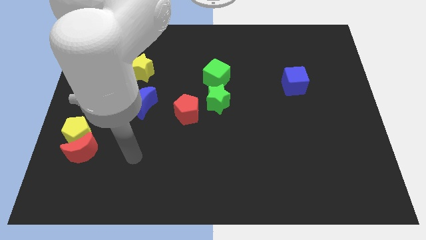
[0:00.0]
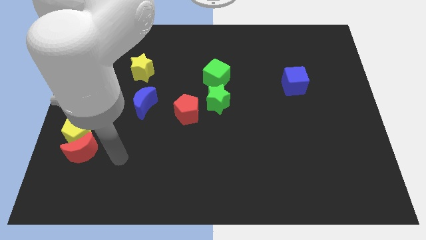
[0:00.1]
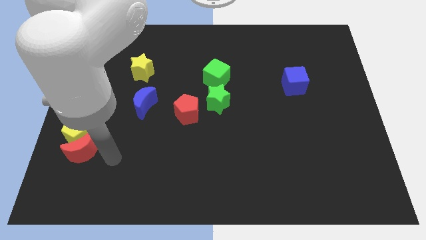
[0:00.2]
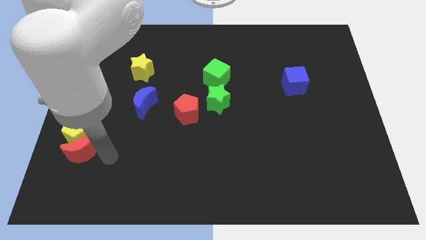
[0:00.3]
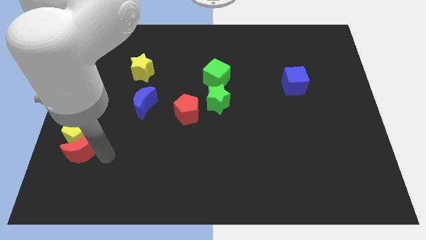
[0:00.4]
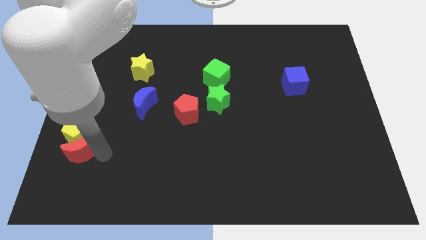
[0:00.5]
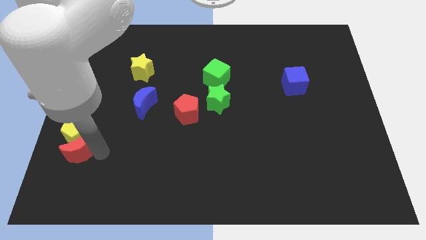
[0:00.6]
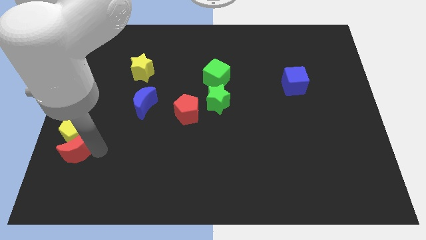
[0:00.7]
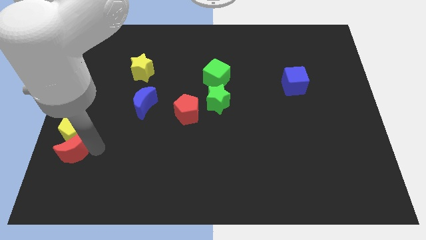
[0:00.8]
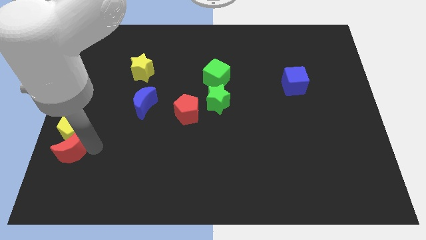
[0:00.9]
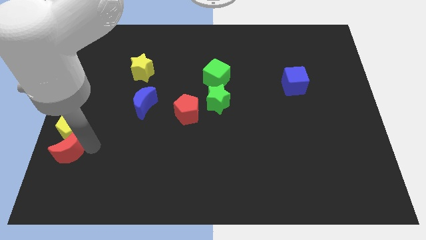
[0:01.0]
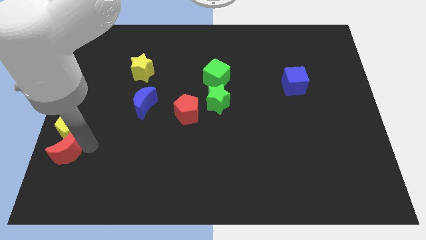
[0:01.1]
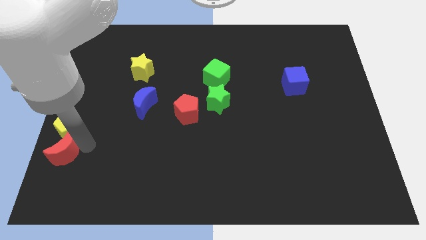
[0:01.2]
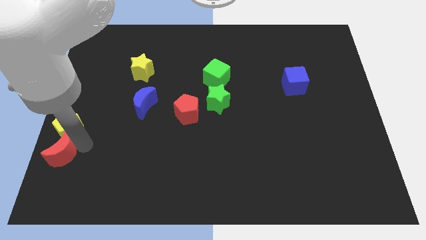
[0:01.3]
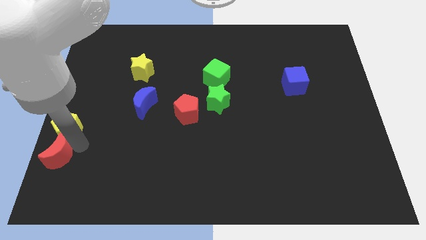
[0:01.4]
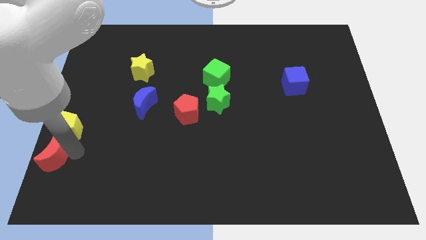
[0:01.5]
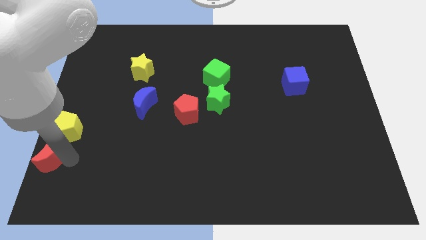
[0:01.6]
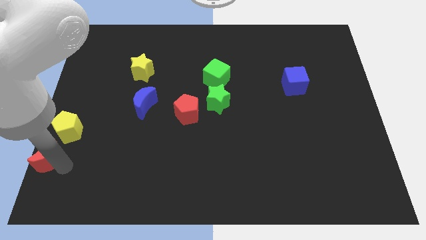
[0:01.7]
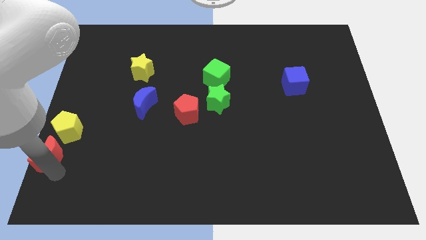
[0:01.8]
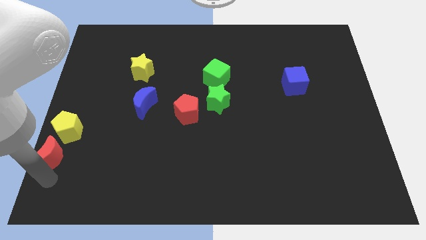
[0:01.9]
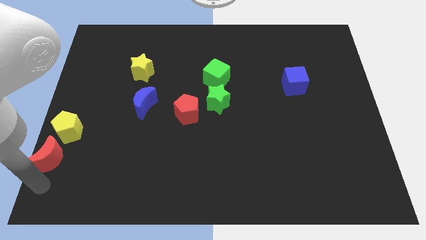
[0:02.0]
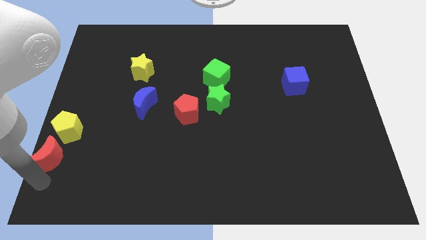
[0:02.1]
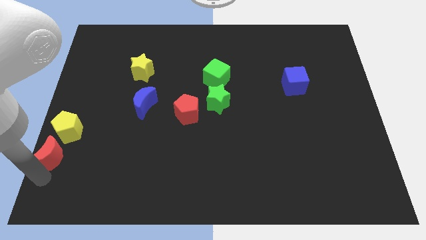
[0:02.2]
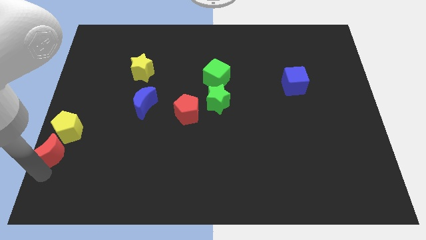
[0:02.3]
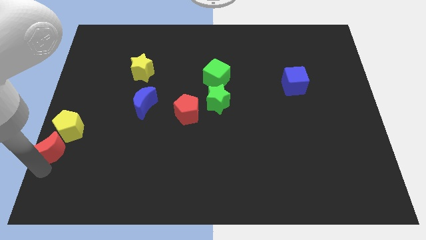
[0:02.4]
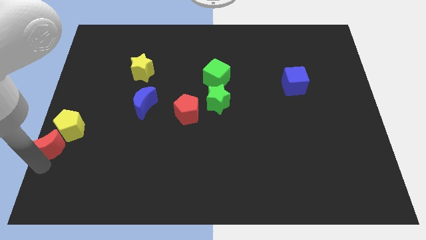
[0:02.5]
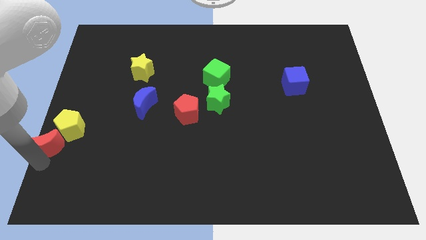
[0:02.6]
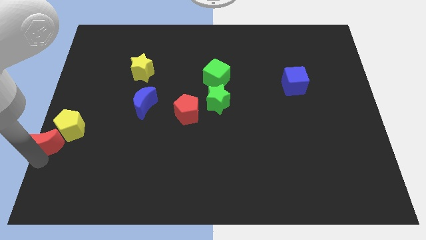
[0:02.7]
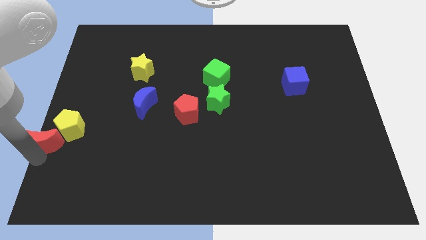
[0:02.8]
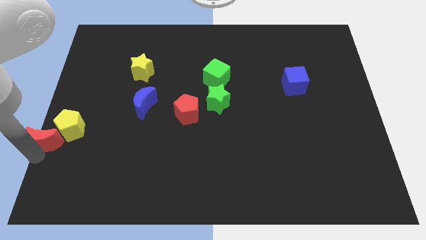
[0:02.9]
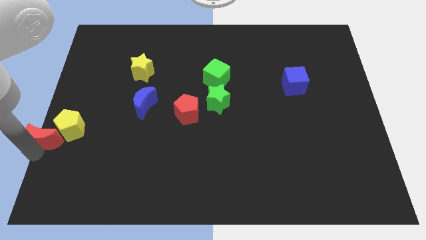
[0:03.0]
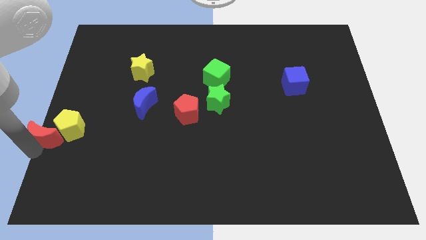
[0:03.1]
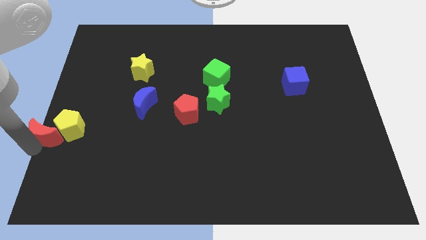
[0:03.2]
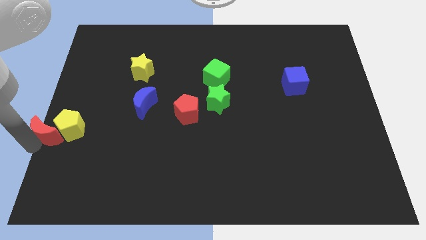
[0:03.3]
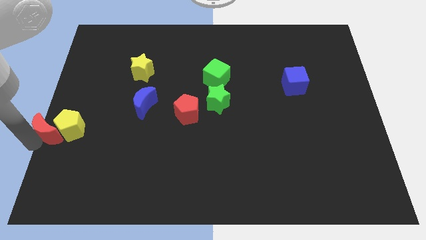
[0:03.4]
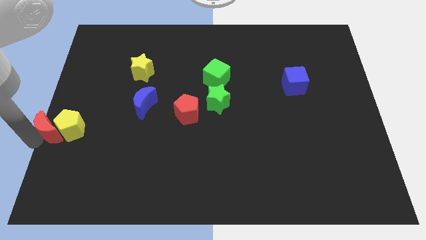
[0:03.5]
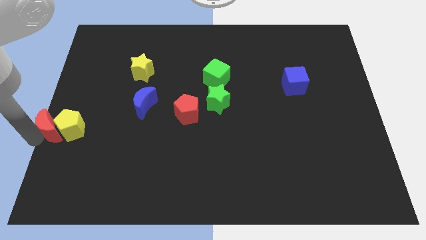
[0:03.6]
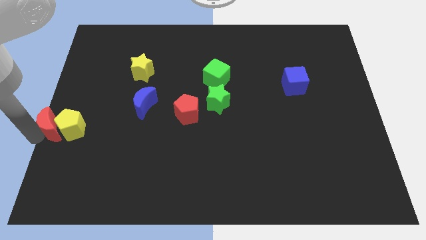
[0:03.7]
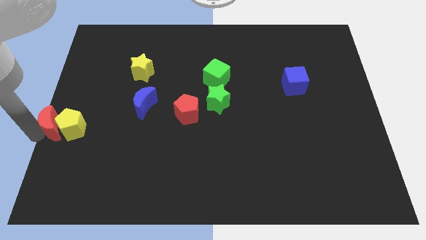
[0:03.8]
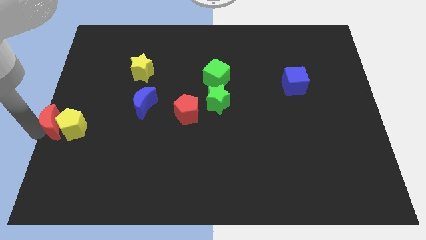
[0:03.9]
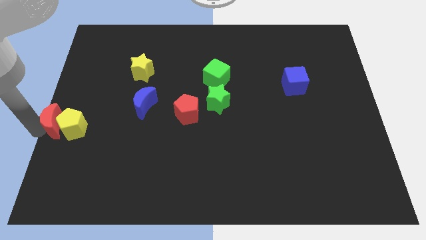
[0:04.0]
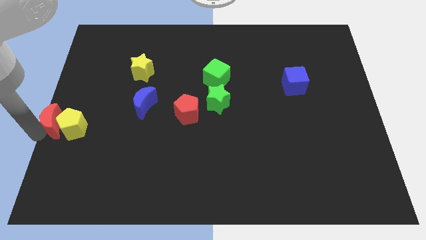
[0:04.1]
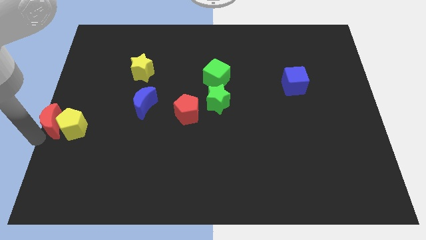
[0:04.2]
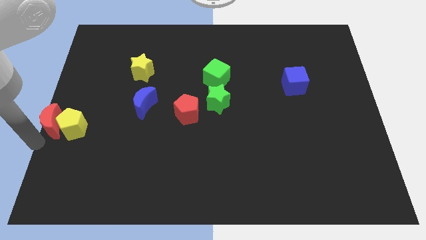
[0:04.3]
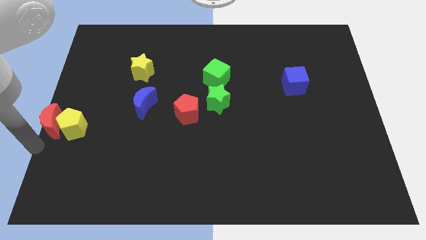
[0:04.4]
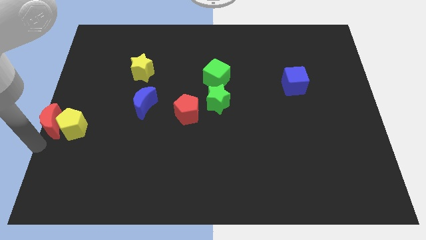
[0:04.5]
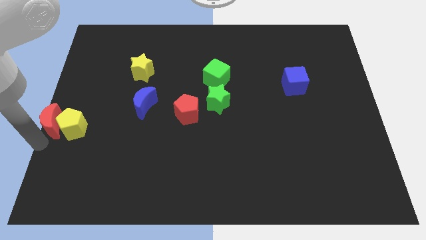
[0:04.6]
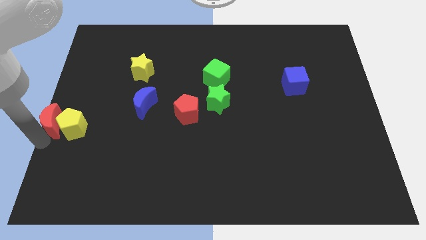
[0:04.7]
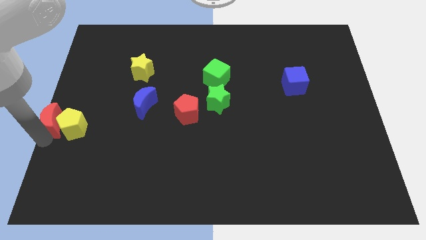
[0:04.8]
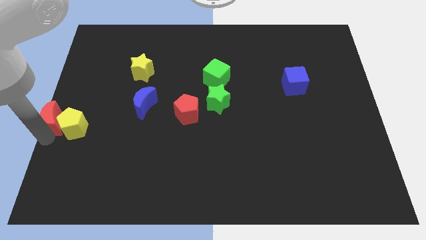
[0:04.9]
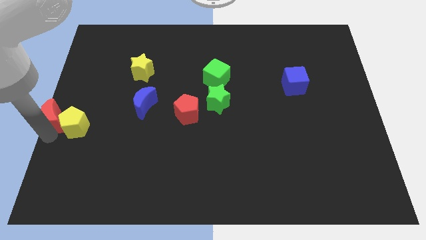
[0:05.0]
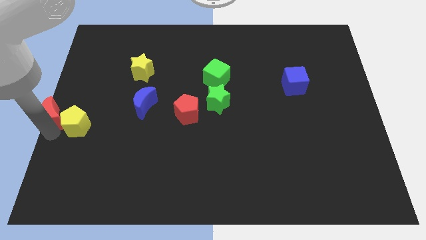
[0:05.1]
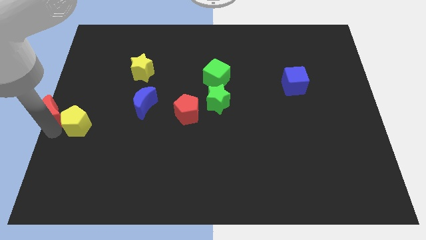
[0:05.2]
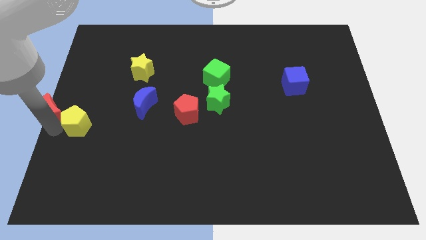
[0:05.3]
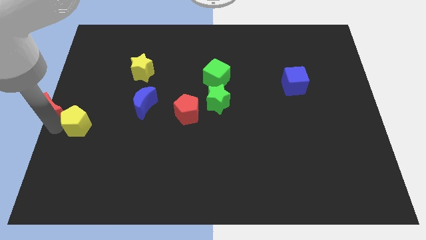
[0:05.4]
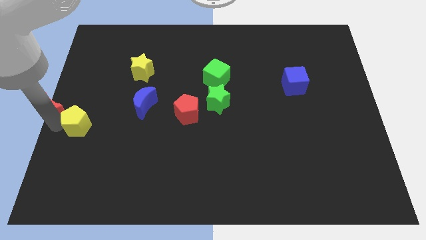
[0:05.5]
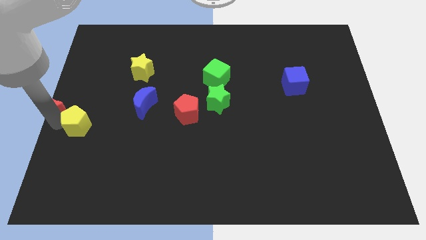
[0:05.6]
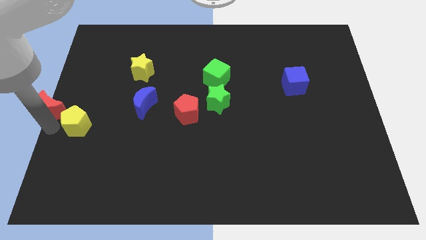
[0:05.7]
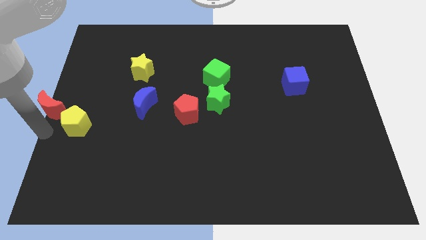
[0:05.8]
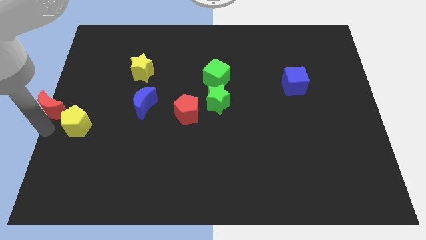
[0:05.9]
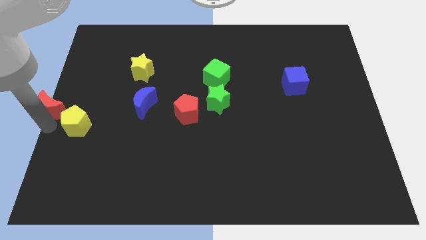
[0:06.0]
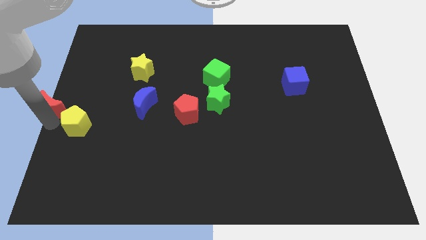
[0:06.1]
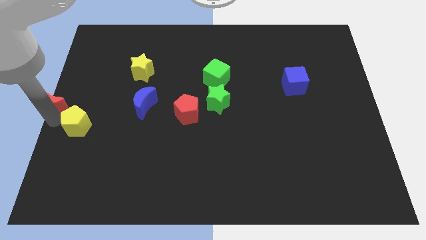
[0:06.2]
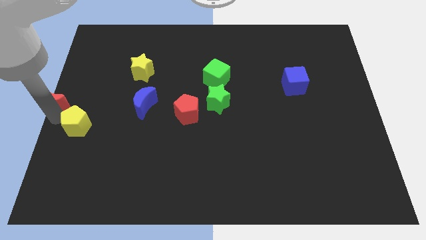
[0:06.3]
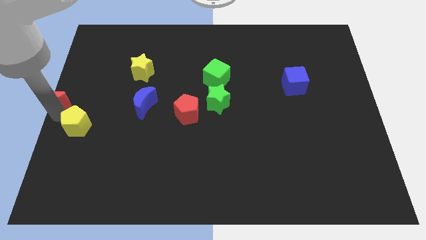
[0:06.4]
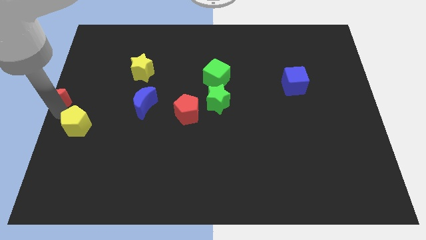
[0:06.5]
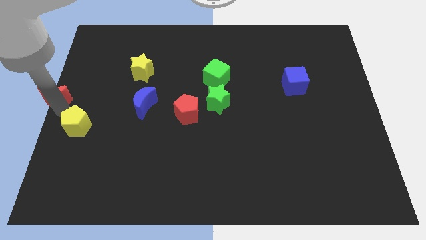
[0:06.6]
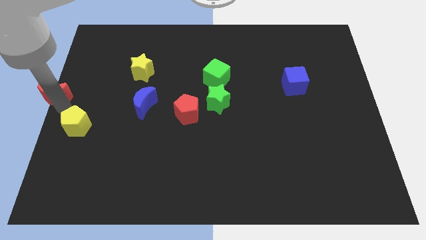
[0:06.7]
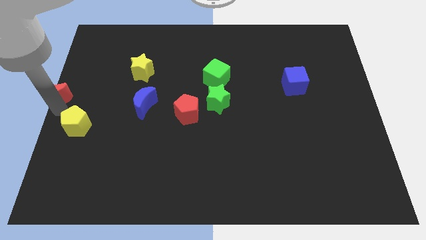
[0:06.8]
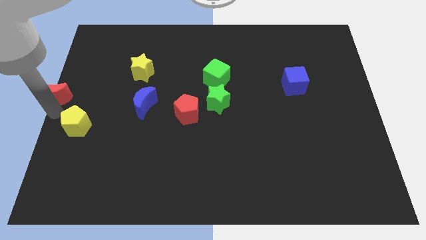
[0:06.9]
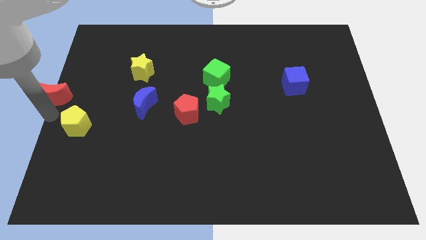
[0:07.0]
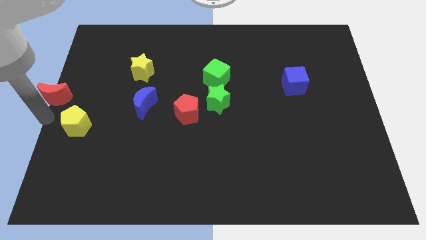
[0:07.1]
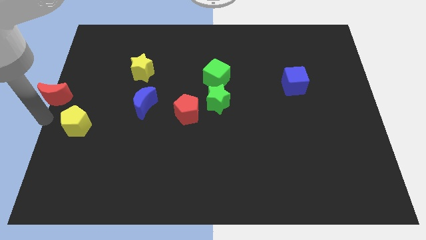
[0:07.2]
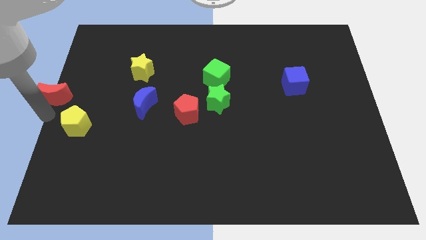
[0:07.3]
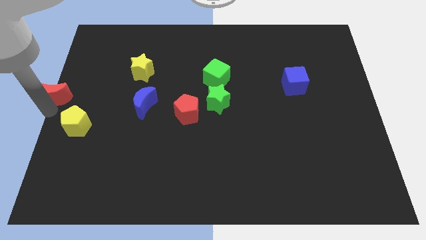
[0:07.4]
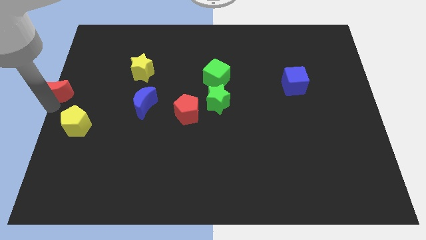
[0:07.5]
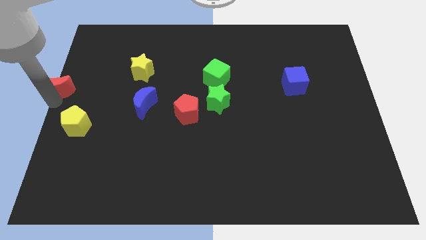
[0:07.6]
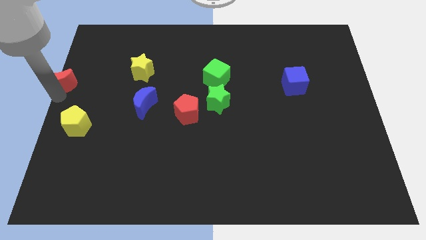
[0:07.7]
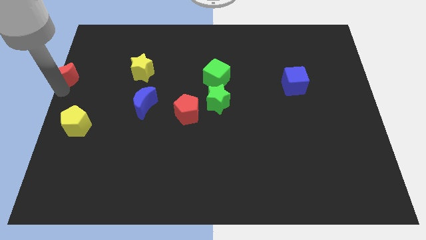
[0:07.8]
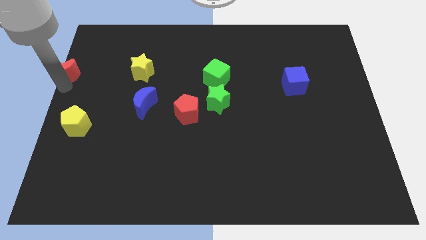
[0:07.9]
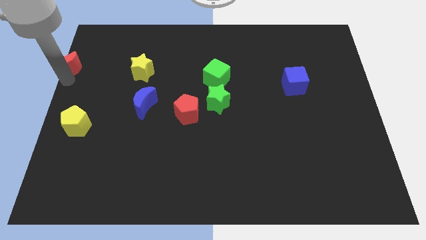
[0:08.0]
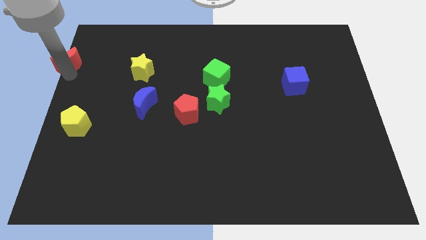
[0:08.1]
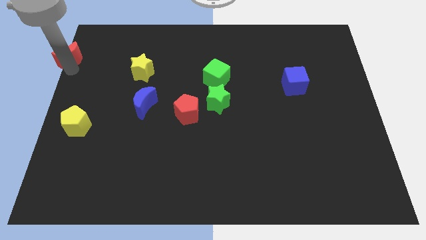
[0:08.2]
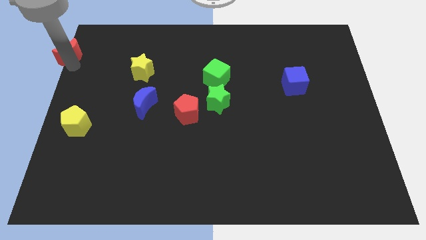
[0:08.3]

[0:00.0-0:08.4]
push the red moon to the top left
